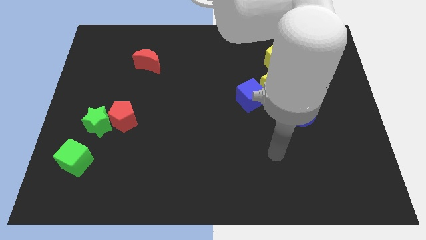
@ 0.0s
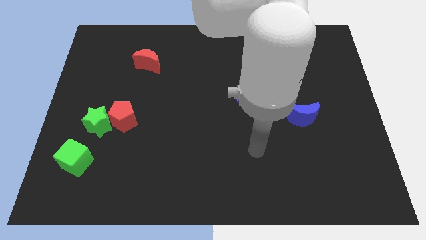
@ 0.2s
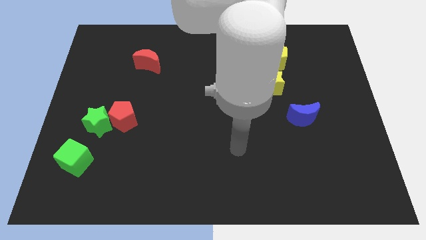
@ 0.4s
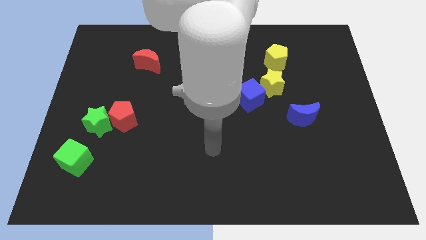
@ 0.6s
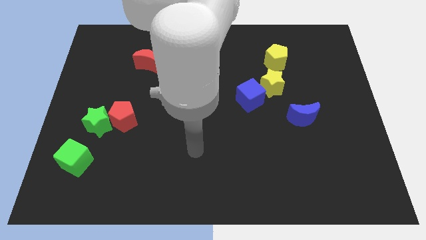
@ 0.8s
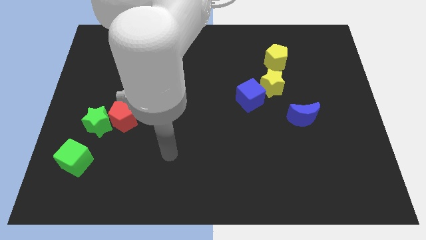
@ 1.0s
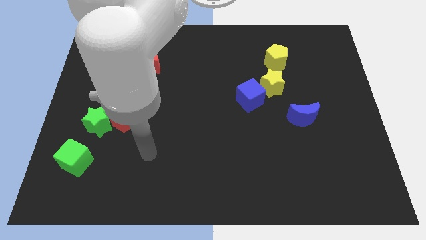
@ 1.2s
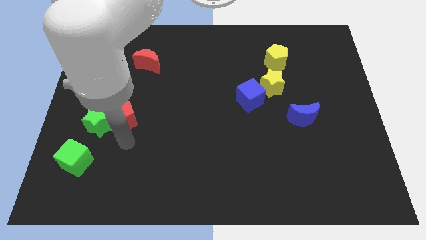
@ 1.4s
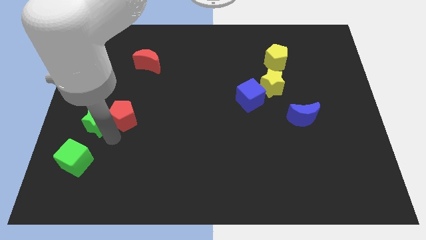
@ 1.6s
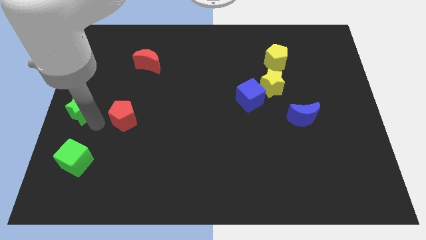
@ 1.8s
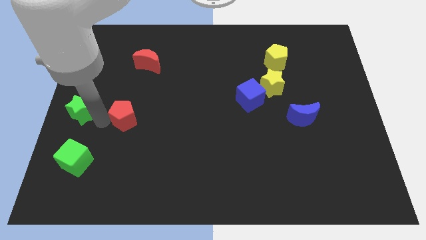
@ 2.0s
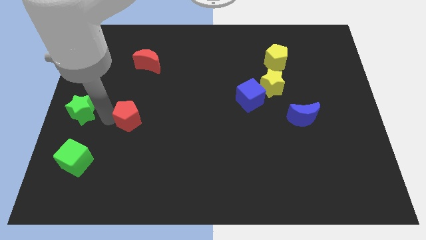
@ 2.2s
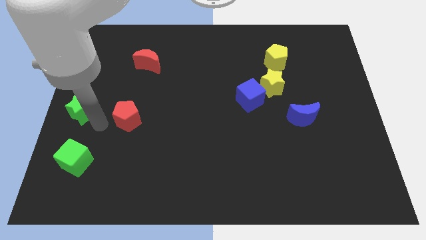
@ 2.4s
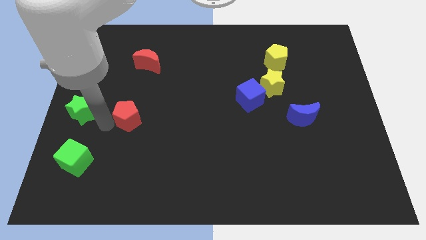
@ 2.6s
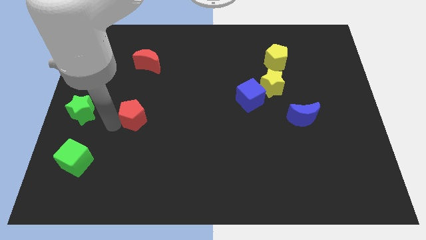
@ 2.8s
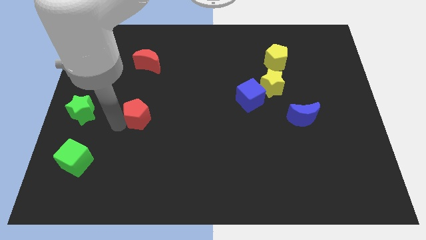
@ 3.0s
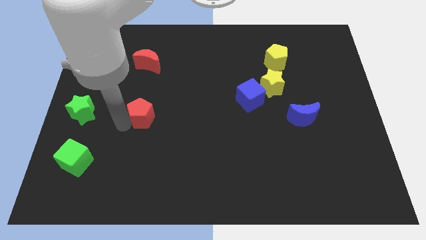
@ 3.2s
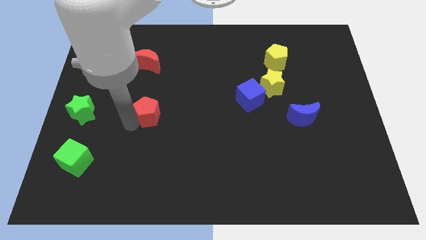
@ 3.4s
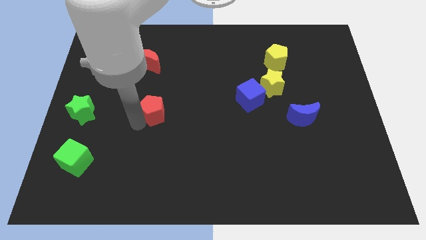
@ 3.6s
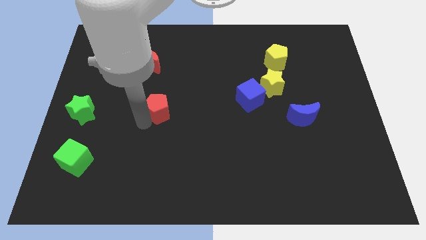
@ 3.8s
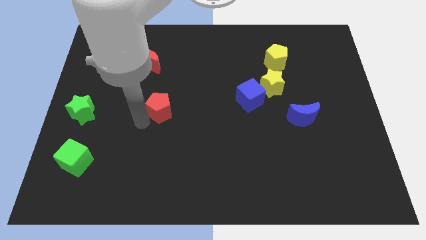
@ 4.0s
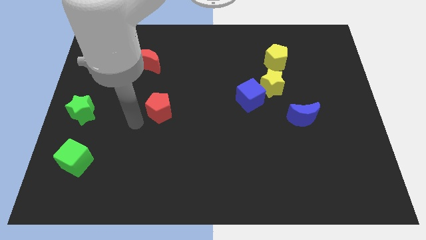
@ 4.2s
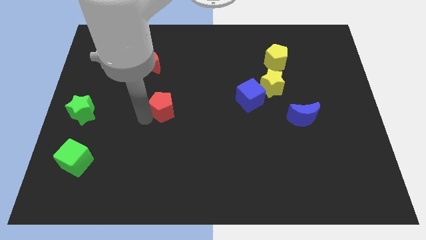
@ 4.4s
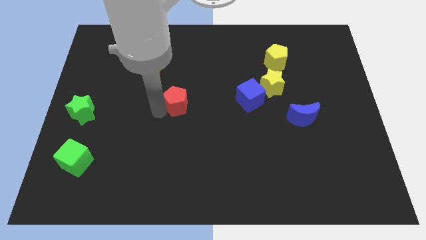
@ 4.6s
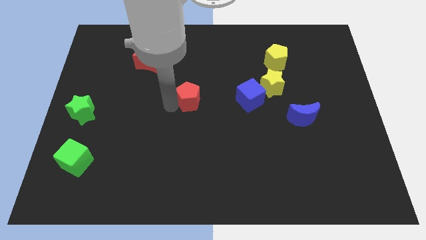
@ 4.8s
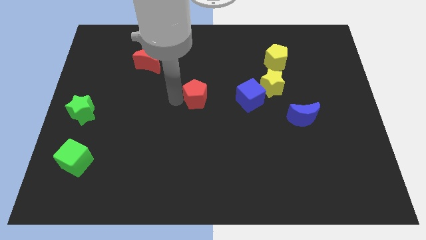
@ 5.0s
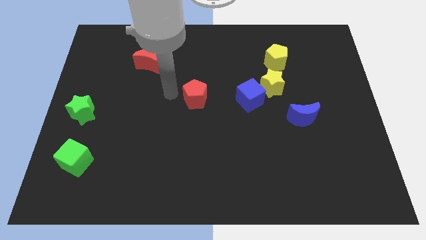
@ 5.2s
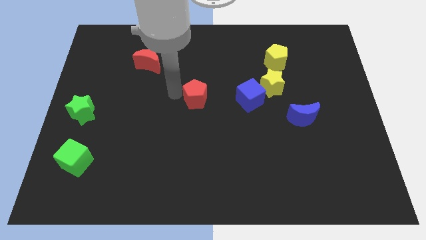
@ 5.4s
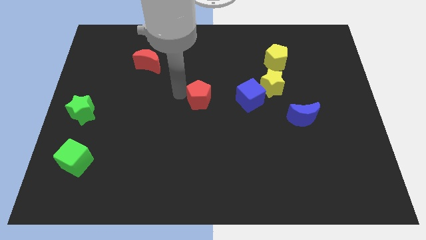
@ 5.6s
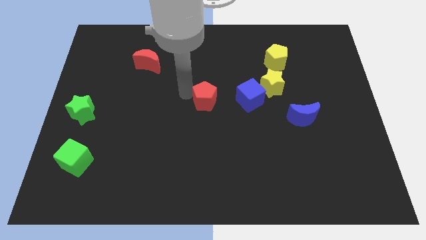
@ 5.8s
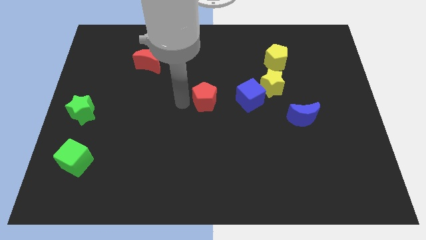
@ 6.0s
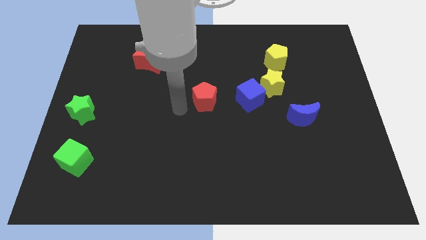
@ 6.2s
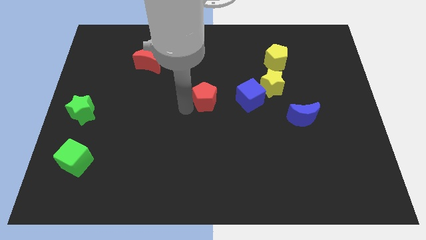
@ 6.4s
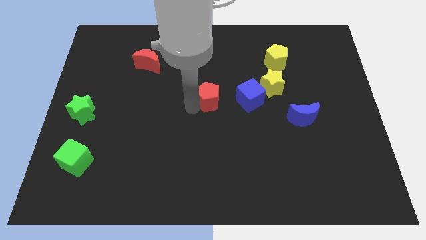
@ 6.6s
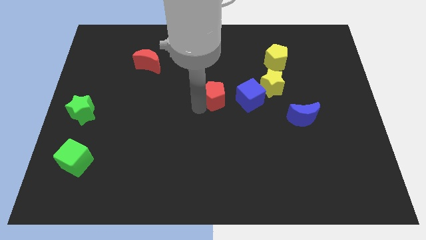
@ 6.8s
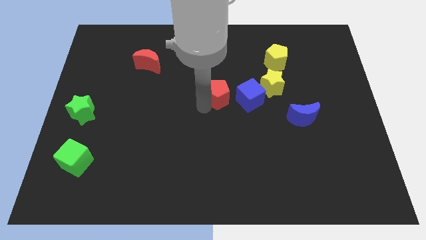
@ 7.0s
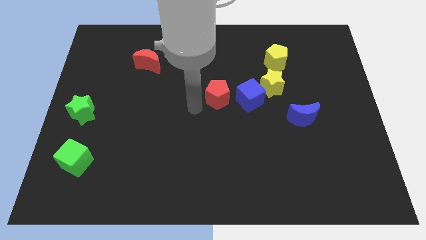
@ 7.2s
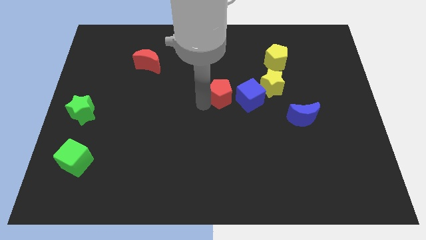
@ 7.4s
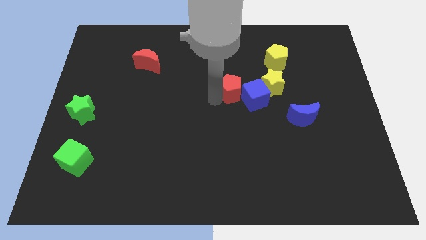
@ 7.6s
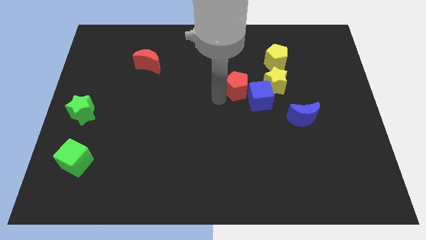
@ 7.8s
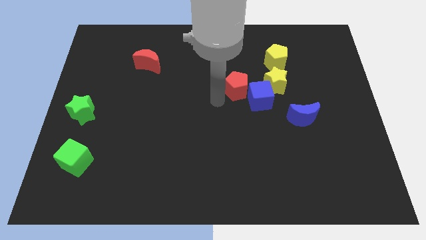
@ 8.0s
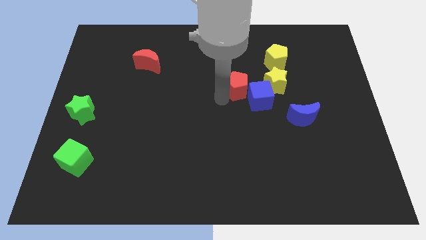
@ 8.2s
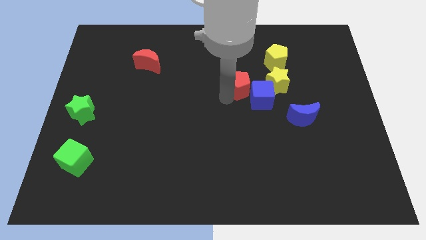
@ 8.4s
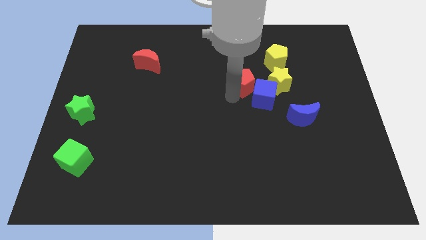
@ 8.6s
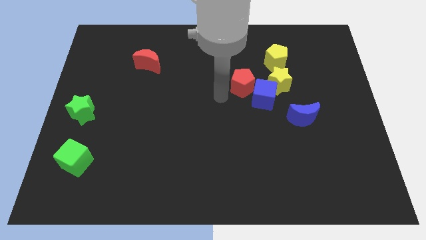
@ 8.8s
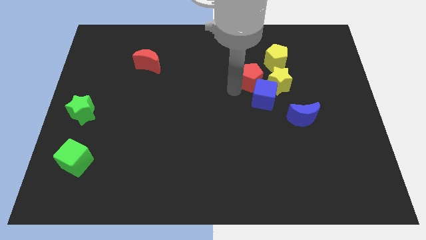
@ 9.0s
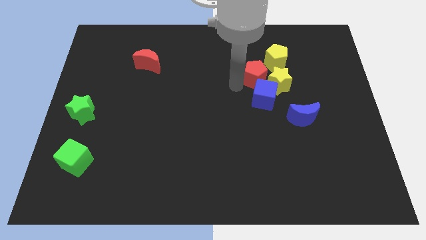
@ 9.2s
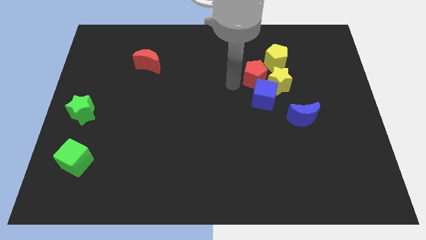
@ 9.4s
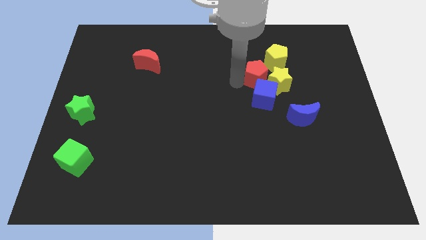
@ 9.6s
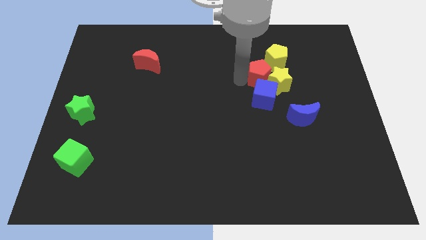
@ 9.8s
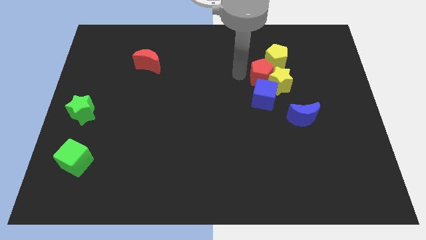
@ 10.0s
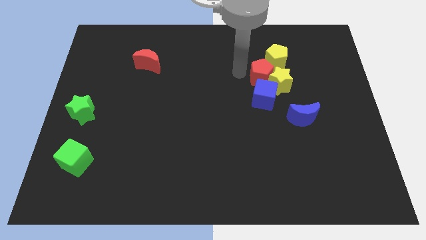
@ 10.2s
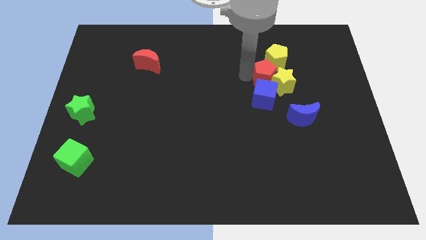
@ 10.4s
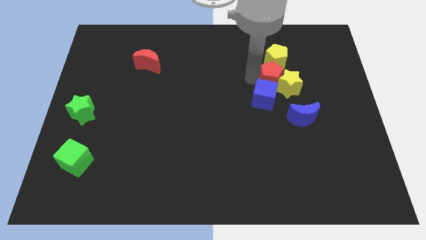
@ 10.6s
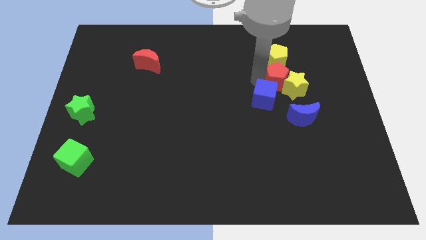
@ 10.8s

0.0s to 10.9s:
move the red pentagon to the top of the blue moon

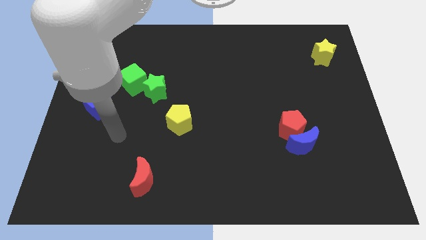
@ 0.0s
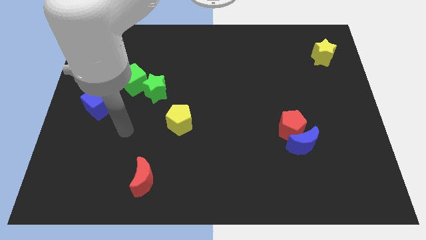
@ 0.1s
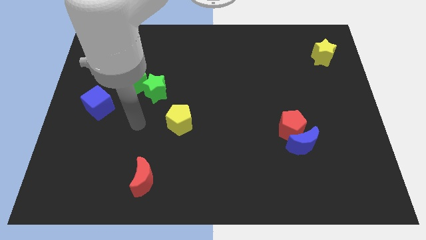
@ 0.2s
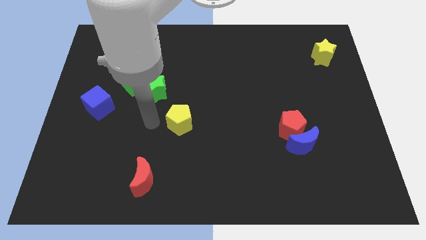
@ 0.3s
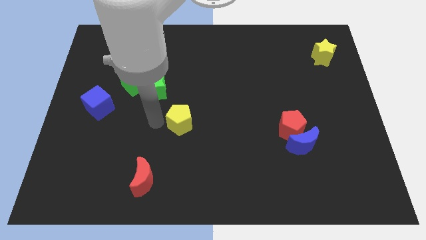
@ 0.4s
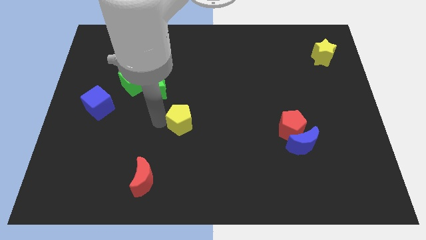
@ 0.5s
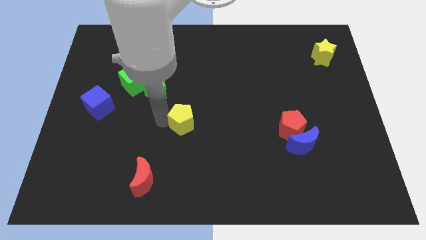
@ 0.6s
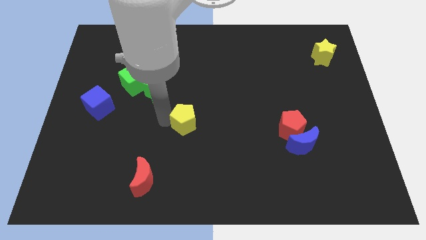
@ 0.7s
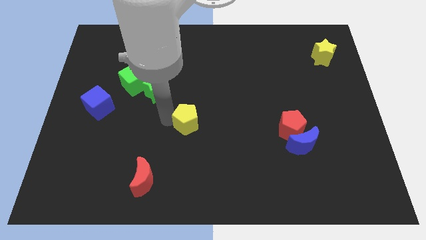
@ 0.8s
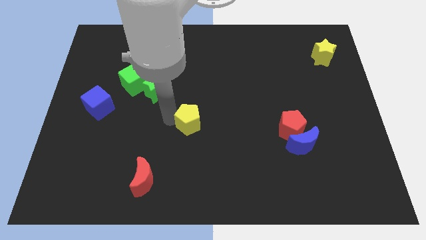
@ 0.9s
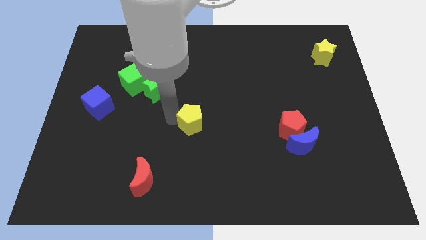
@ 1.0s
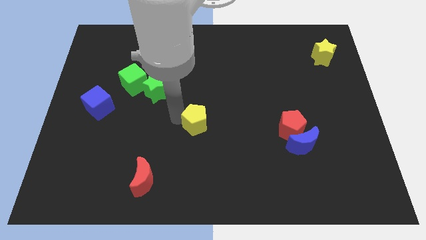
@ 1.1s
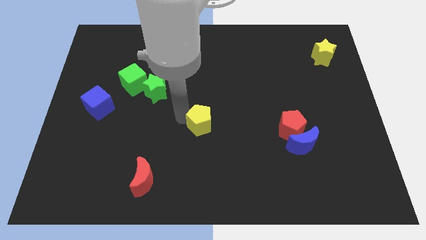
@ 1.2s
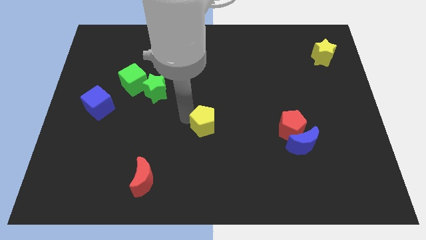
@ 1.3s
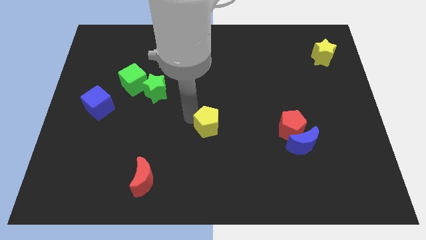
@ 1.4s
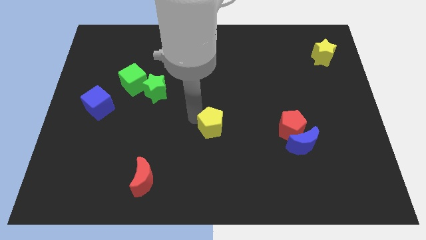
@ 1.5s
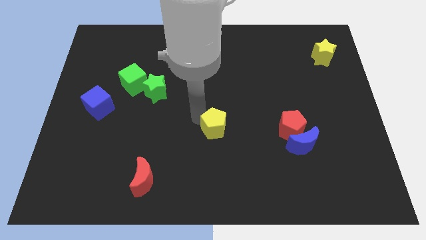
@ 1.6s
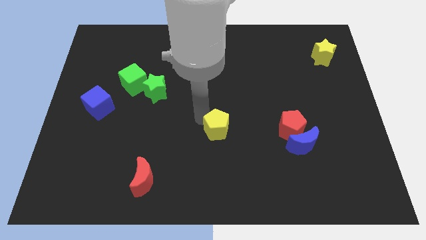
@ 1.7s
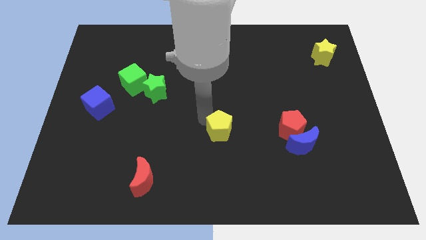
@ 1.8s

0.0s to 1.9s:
put the yellow pentagon left of the red pentagon
